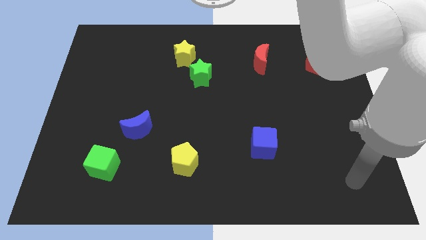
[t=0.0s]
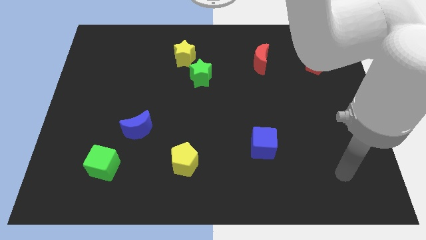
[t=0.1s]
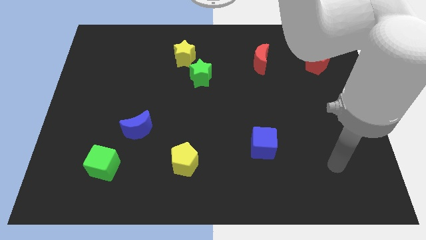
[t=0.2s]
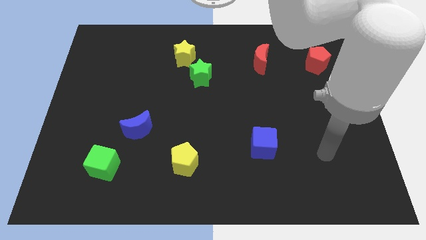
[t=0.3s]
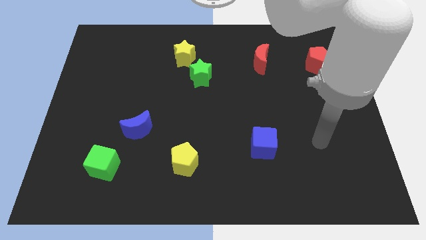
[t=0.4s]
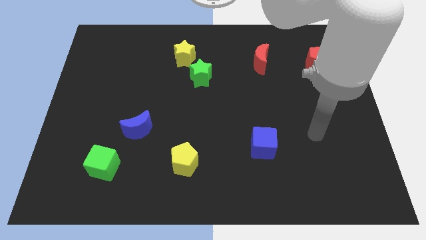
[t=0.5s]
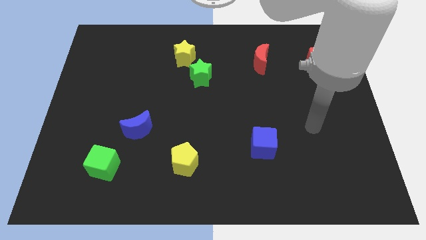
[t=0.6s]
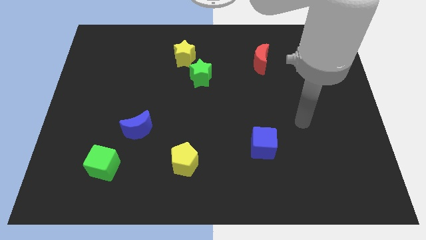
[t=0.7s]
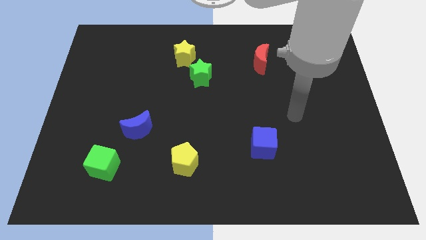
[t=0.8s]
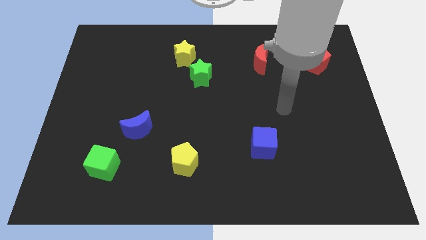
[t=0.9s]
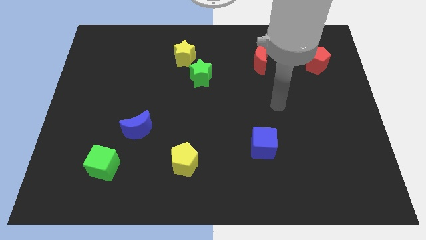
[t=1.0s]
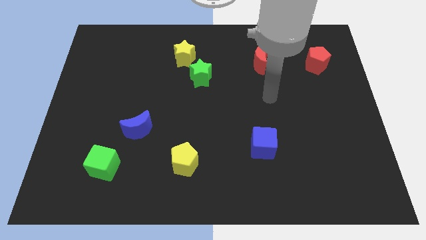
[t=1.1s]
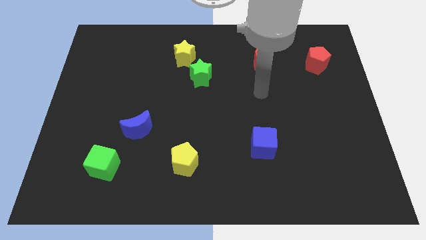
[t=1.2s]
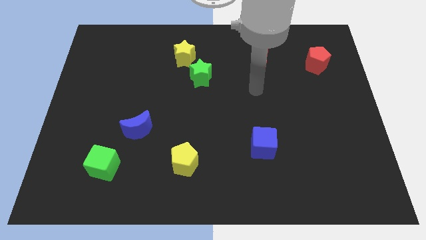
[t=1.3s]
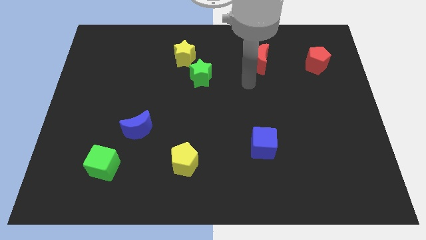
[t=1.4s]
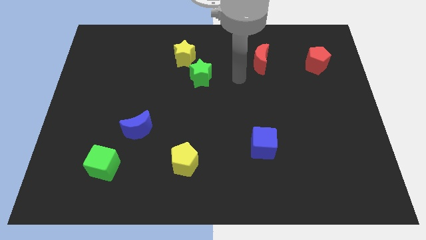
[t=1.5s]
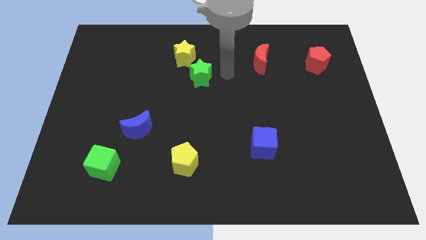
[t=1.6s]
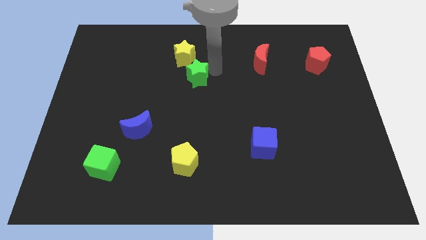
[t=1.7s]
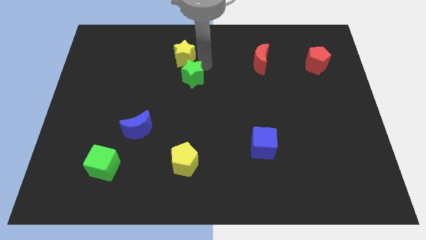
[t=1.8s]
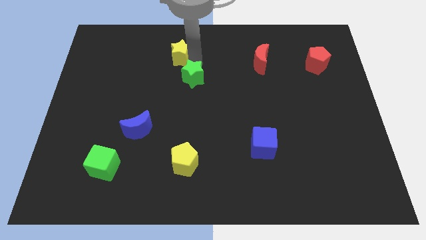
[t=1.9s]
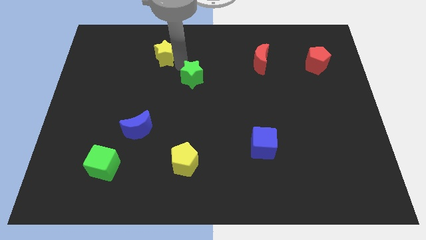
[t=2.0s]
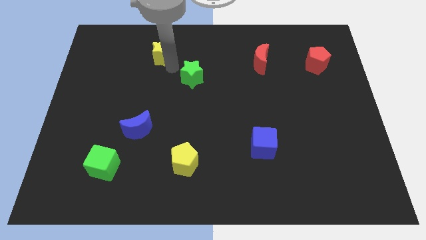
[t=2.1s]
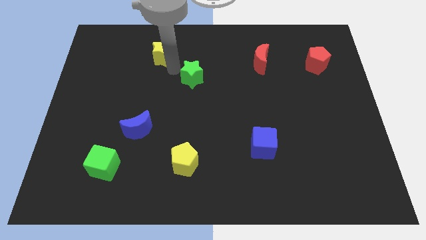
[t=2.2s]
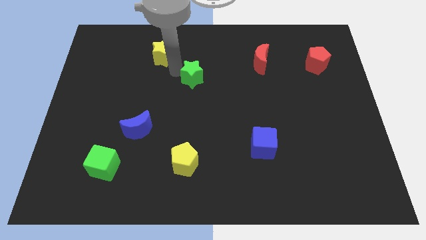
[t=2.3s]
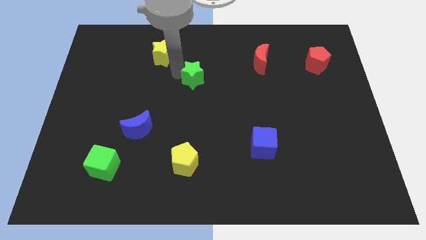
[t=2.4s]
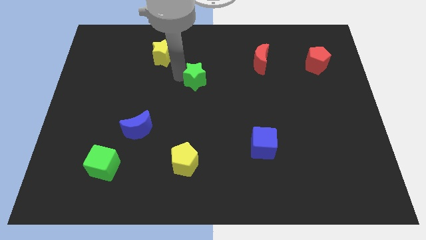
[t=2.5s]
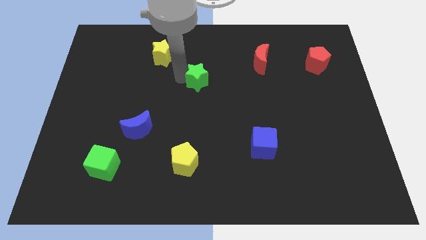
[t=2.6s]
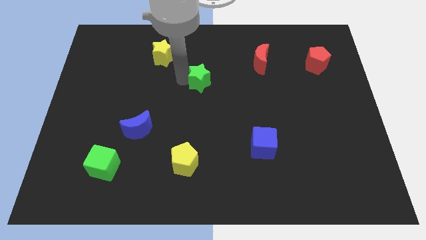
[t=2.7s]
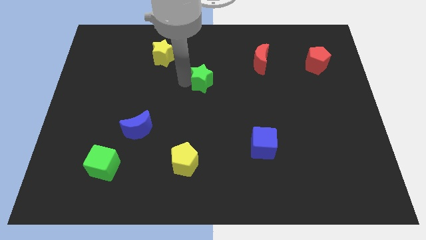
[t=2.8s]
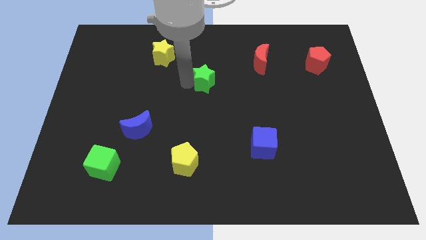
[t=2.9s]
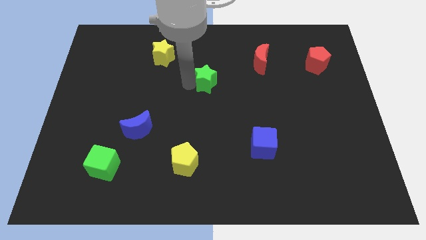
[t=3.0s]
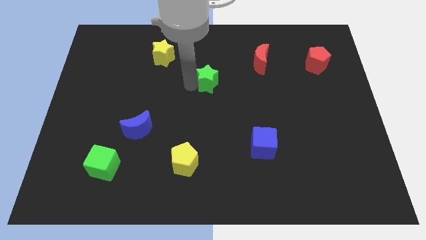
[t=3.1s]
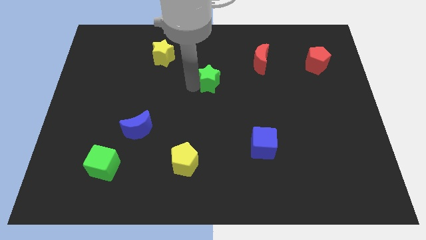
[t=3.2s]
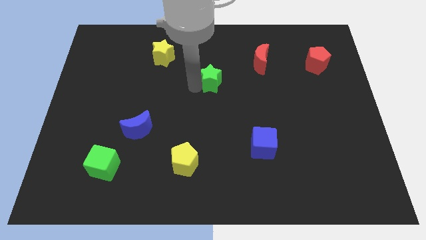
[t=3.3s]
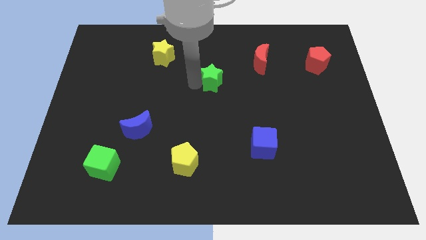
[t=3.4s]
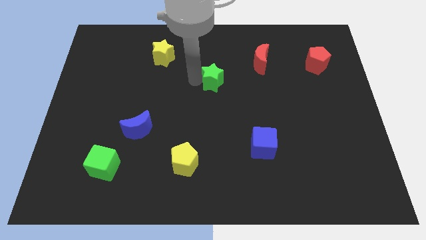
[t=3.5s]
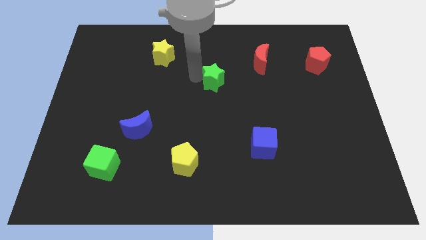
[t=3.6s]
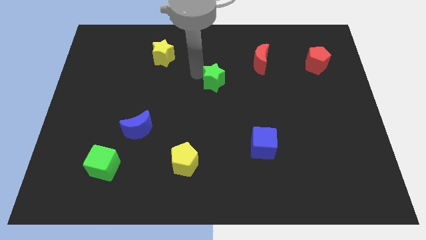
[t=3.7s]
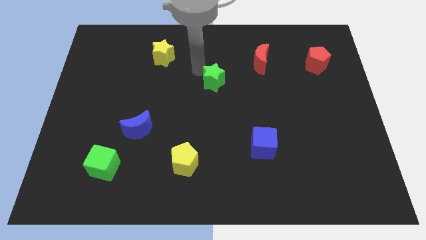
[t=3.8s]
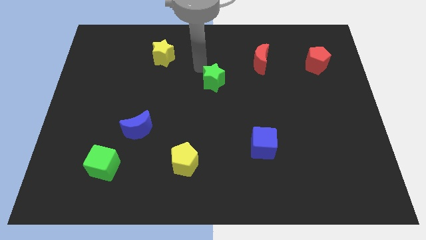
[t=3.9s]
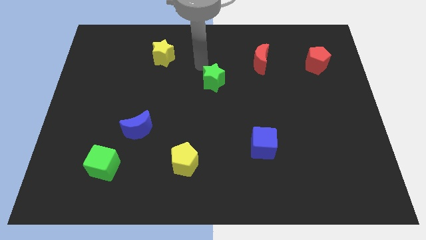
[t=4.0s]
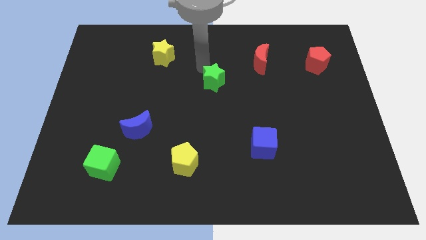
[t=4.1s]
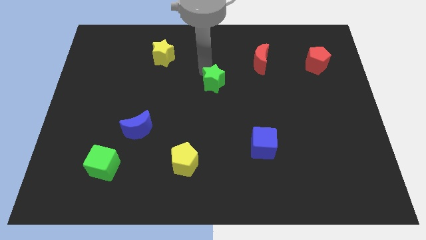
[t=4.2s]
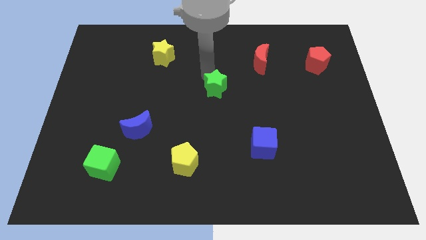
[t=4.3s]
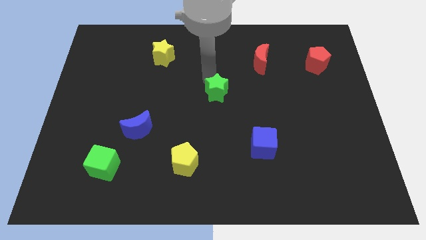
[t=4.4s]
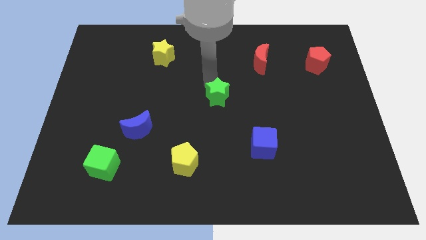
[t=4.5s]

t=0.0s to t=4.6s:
move the green star a little bit downwards and to the right diagonally

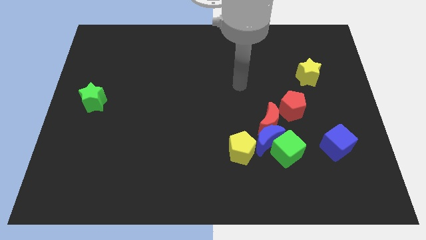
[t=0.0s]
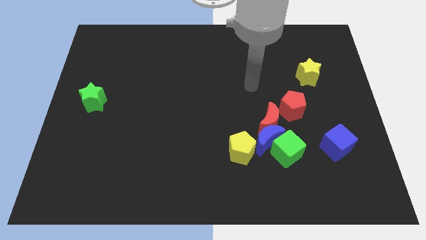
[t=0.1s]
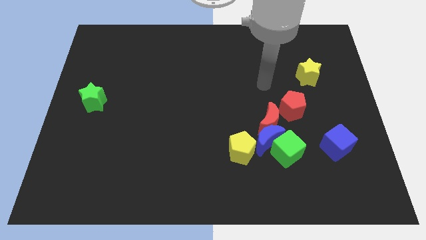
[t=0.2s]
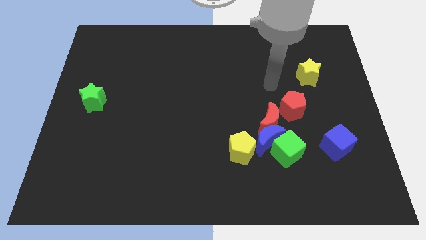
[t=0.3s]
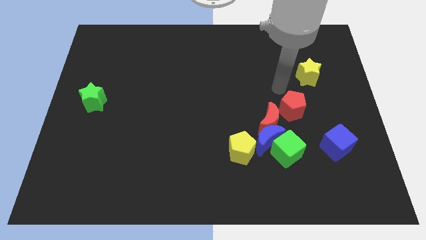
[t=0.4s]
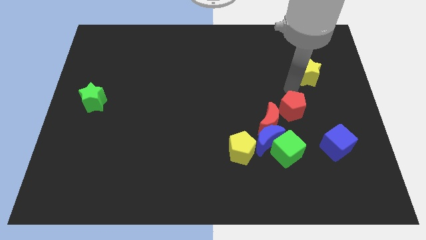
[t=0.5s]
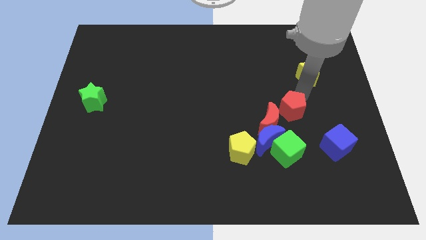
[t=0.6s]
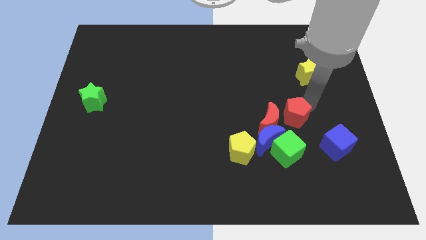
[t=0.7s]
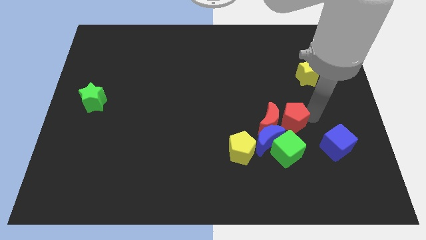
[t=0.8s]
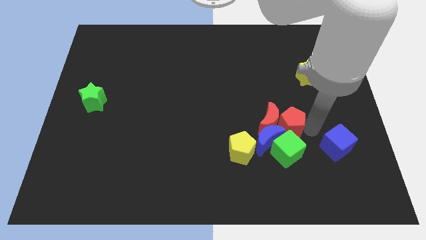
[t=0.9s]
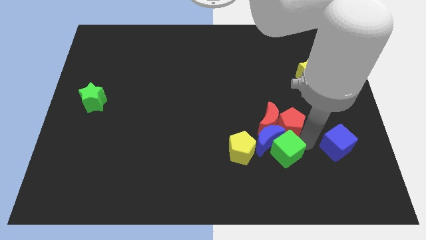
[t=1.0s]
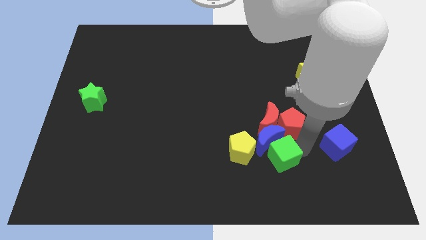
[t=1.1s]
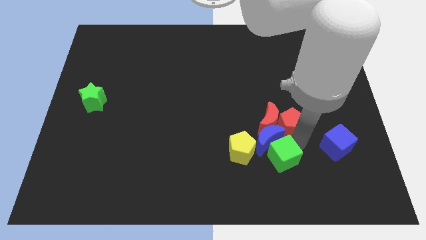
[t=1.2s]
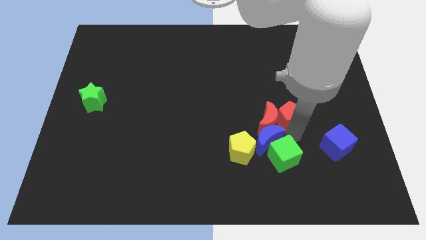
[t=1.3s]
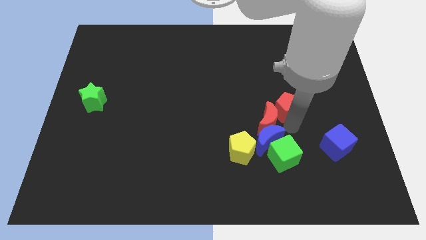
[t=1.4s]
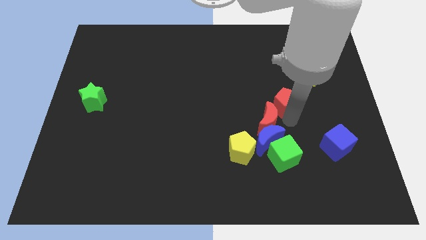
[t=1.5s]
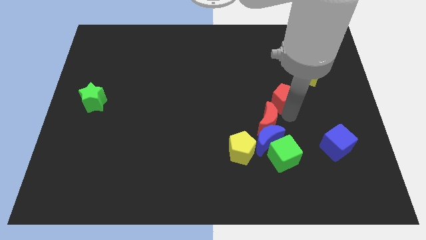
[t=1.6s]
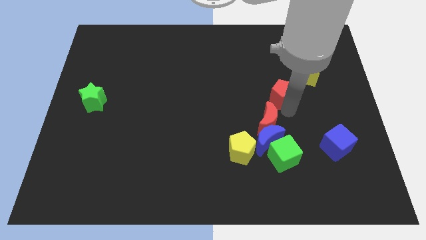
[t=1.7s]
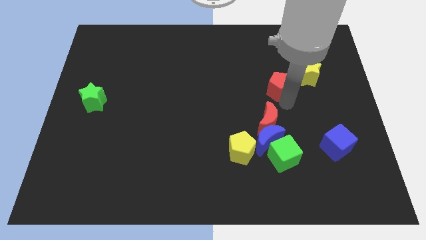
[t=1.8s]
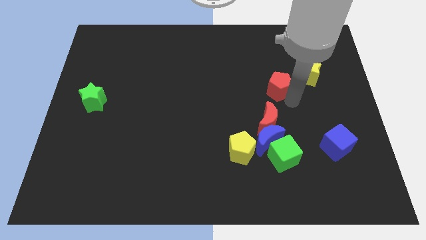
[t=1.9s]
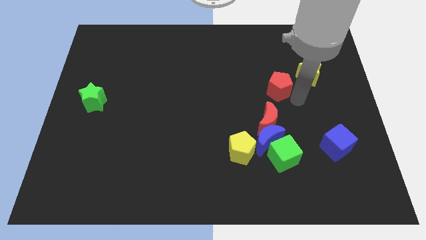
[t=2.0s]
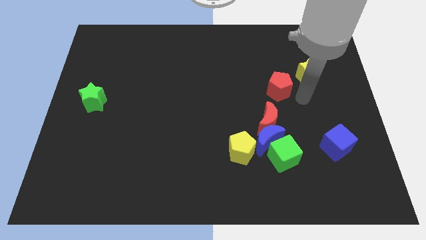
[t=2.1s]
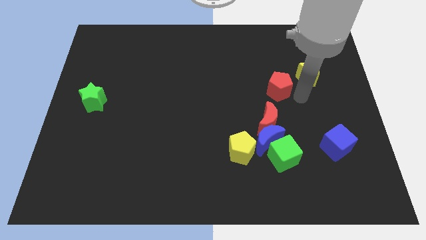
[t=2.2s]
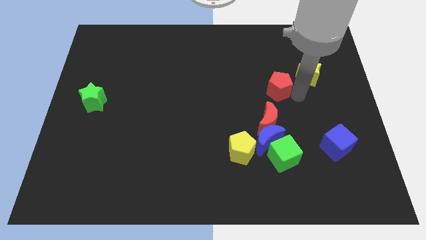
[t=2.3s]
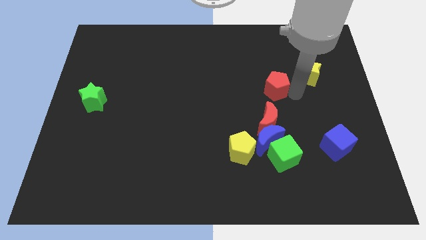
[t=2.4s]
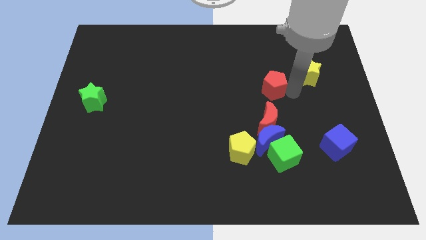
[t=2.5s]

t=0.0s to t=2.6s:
move the red pentagon diagonally up and left slightly

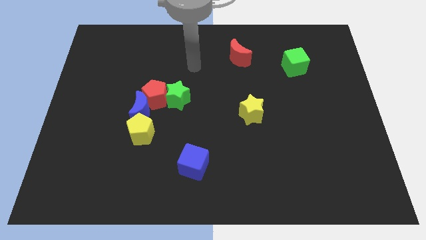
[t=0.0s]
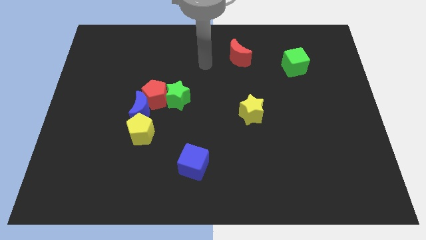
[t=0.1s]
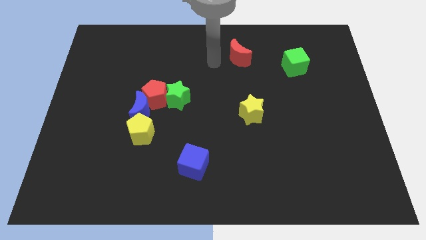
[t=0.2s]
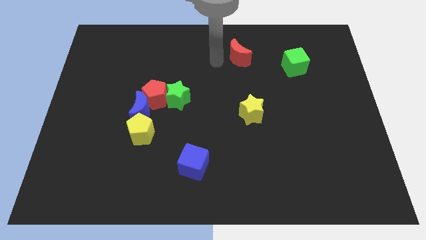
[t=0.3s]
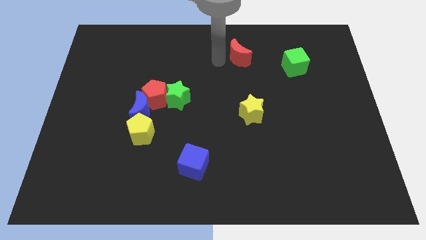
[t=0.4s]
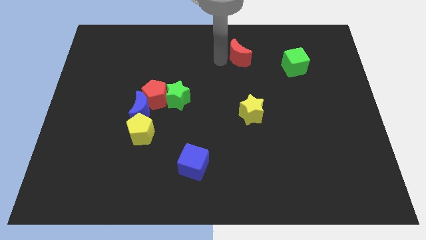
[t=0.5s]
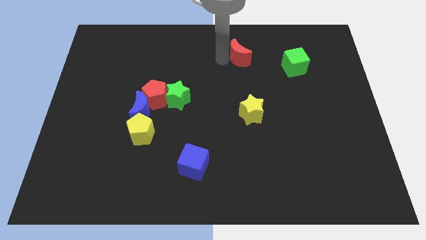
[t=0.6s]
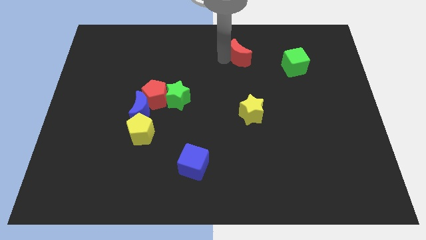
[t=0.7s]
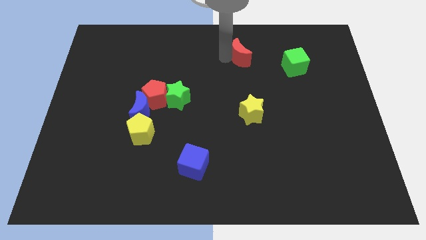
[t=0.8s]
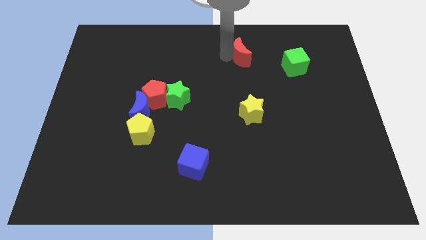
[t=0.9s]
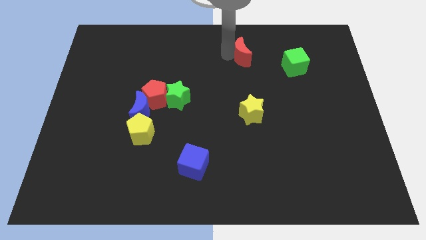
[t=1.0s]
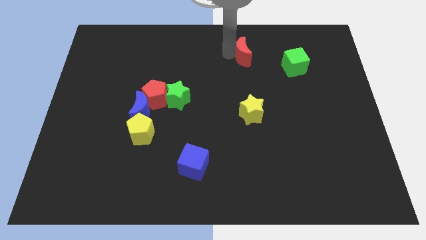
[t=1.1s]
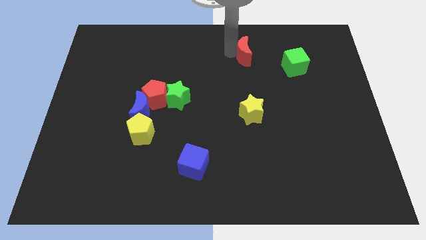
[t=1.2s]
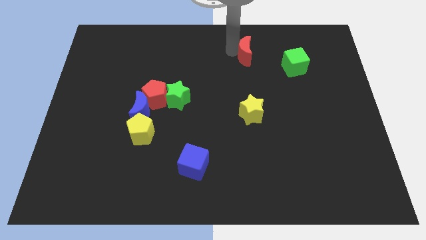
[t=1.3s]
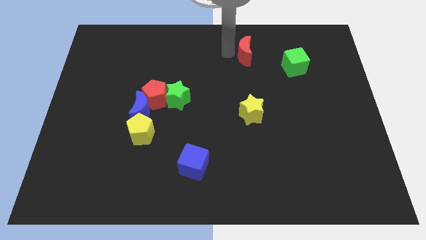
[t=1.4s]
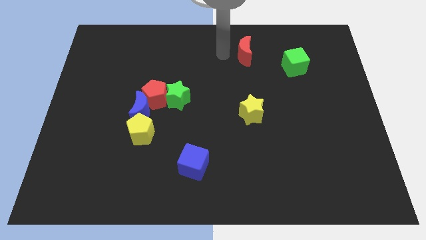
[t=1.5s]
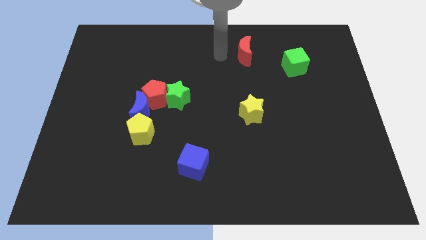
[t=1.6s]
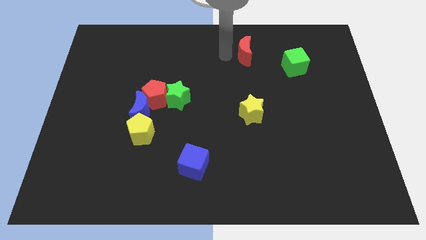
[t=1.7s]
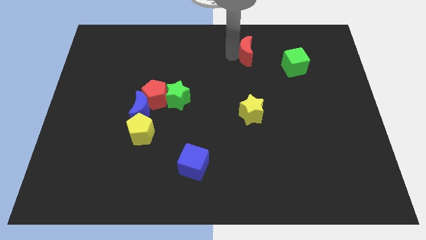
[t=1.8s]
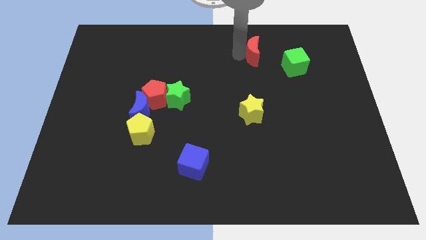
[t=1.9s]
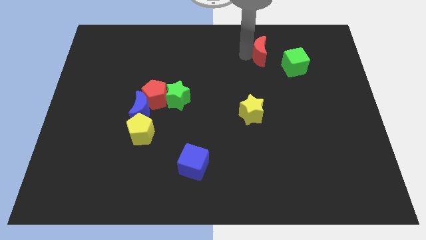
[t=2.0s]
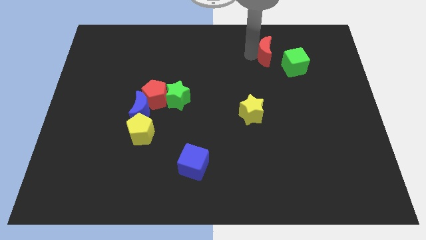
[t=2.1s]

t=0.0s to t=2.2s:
slide the red moon to the right somewhat
